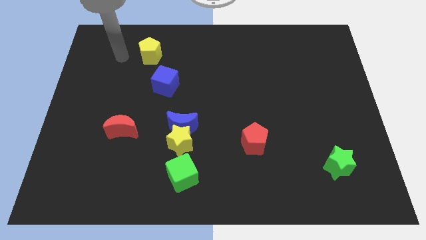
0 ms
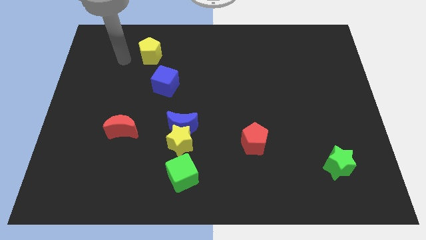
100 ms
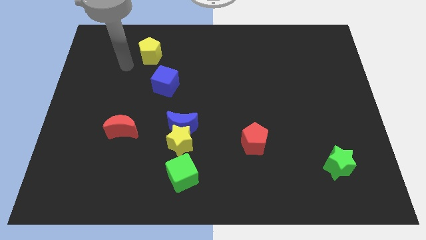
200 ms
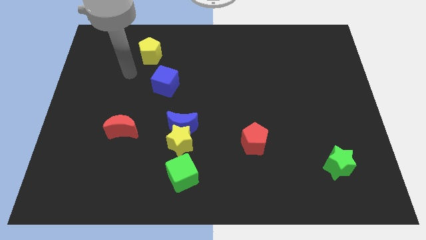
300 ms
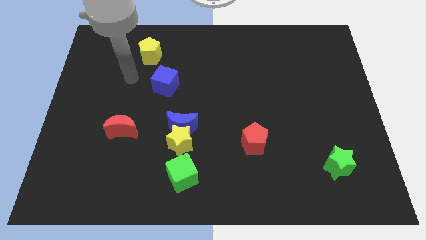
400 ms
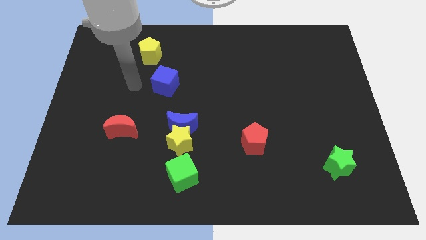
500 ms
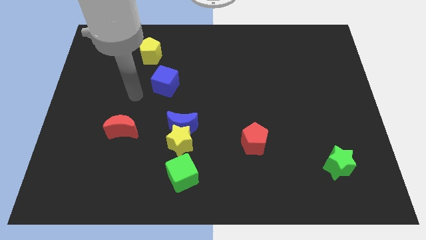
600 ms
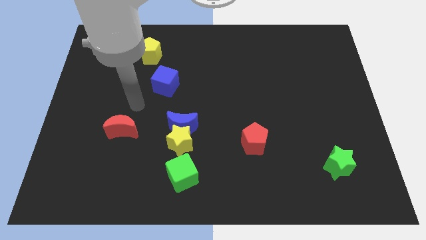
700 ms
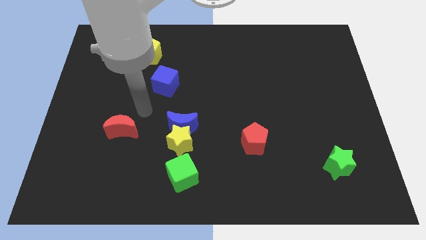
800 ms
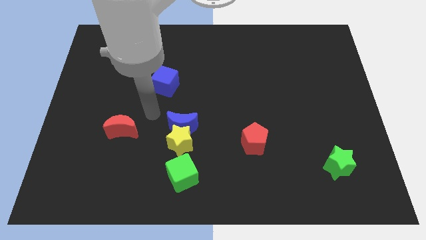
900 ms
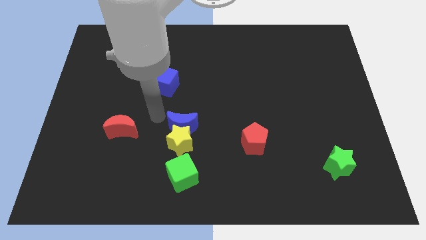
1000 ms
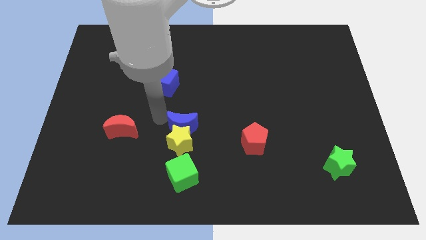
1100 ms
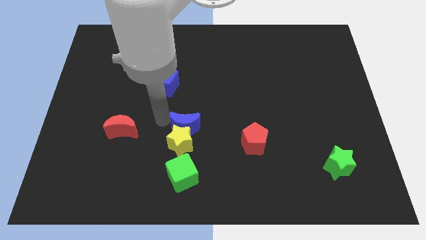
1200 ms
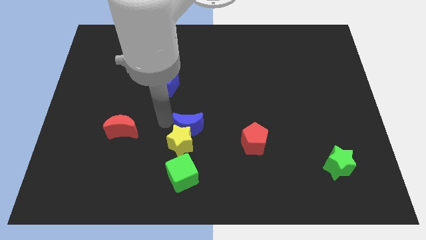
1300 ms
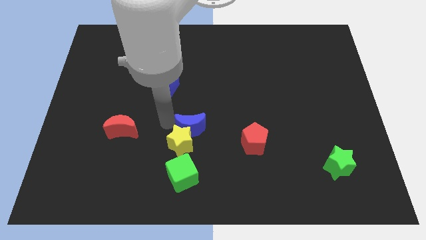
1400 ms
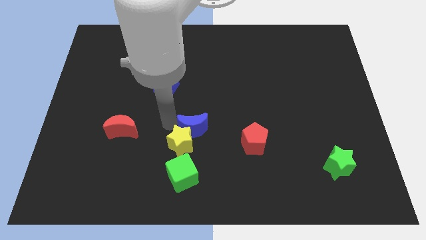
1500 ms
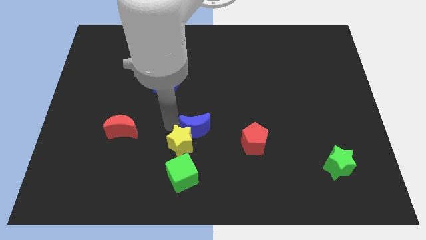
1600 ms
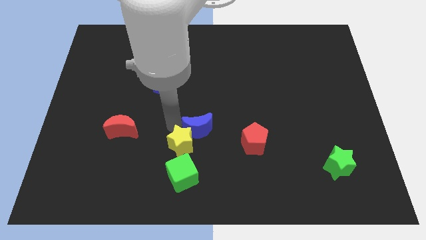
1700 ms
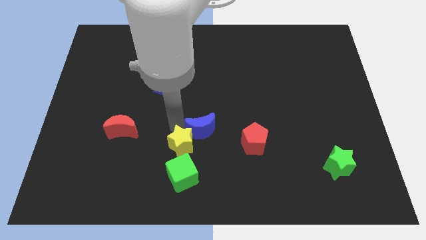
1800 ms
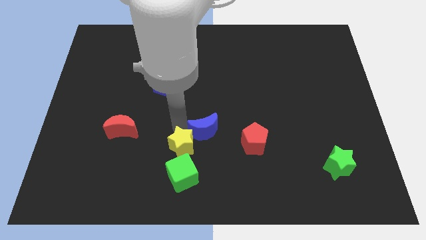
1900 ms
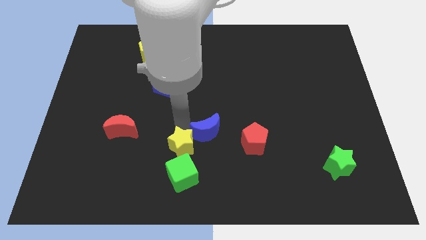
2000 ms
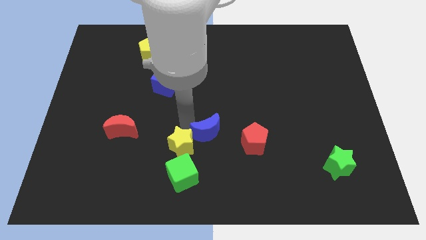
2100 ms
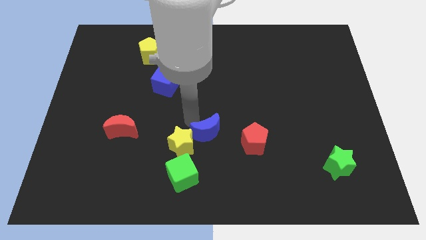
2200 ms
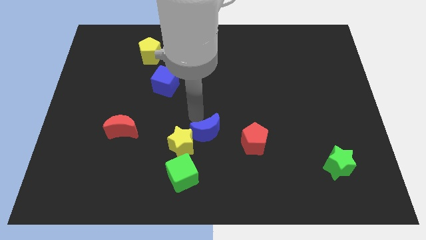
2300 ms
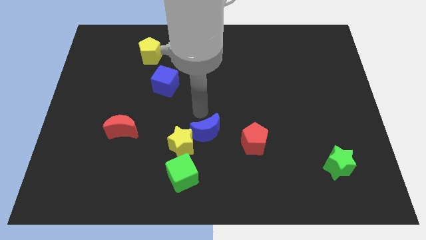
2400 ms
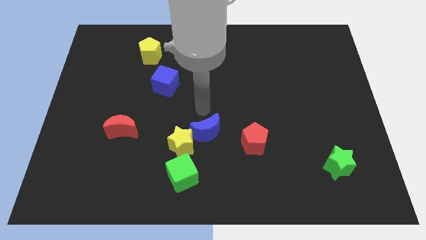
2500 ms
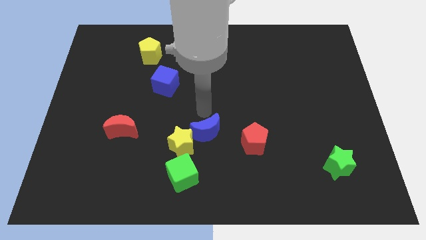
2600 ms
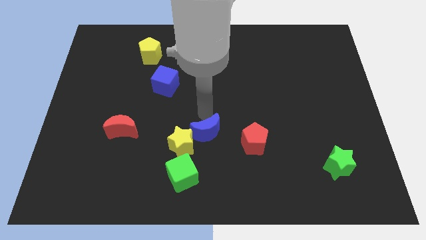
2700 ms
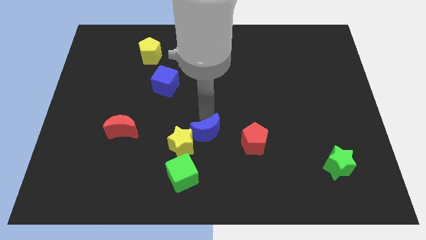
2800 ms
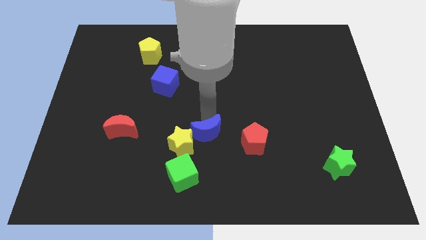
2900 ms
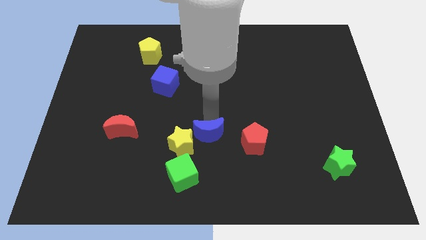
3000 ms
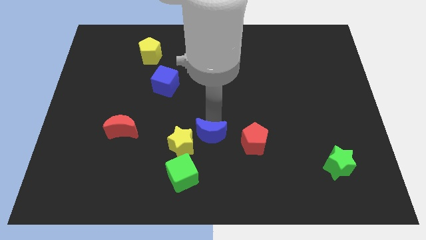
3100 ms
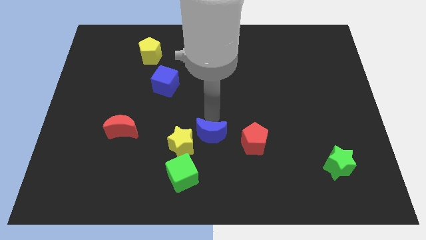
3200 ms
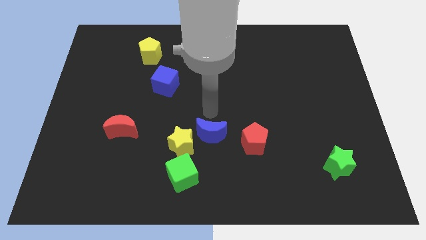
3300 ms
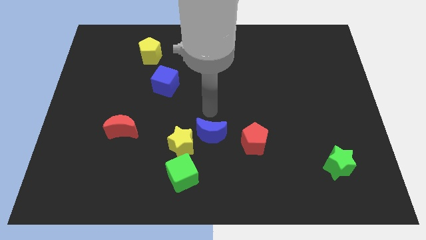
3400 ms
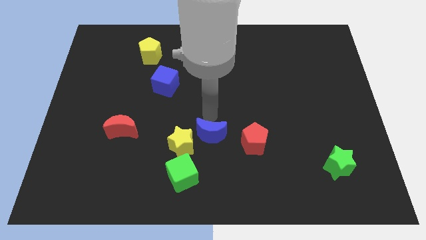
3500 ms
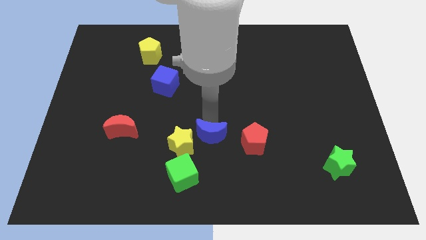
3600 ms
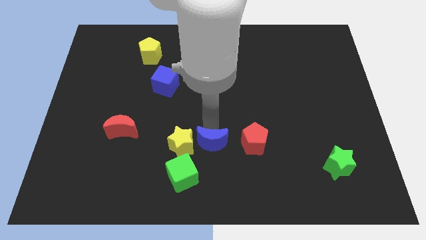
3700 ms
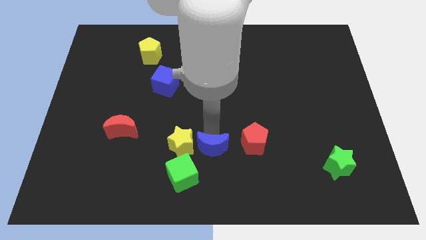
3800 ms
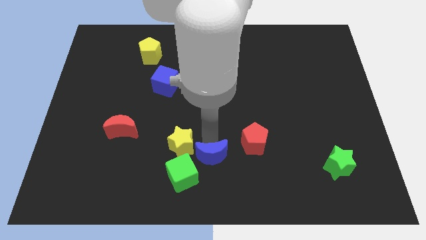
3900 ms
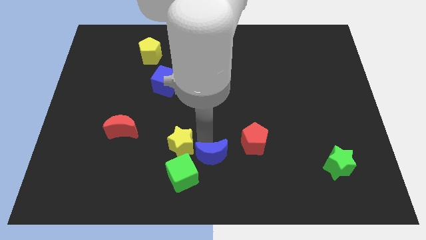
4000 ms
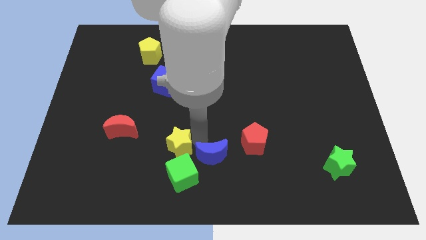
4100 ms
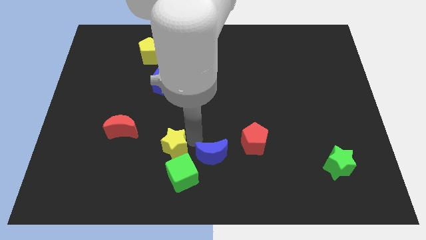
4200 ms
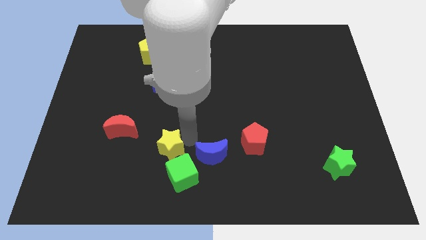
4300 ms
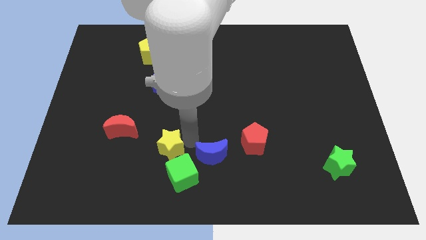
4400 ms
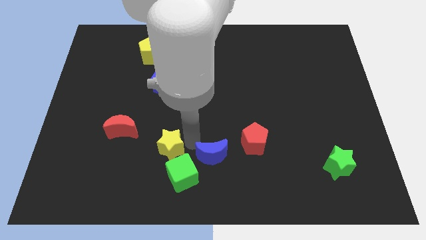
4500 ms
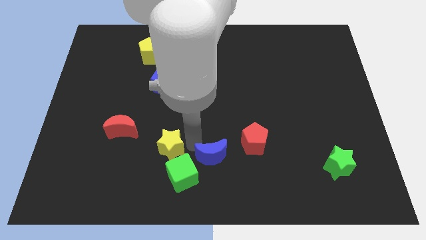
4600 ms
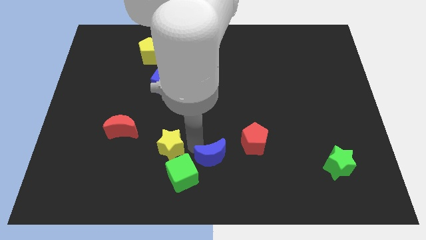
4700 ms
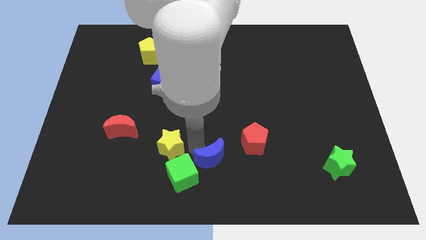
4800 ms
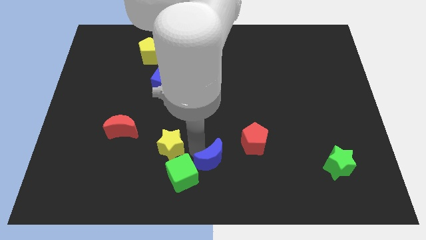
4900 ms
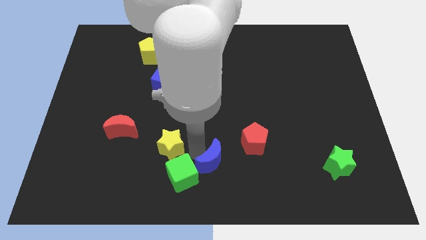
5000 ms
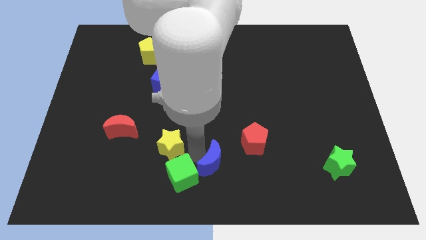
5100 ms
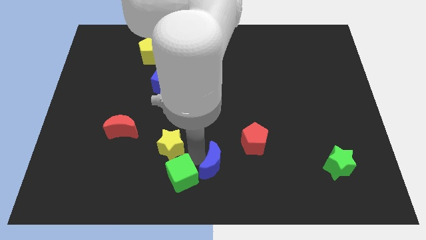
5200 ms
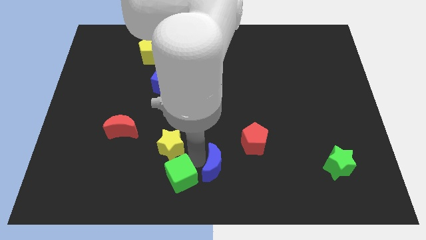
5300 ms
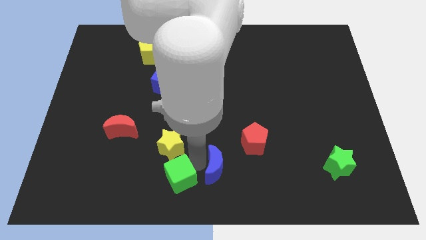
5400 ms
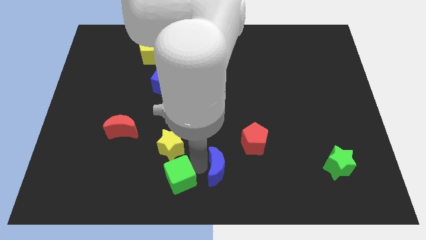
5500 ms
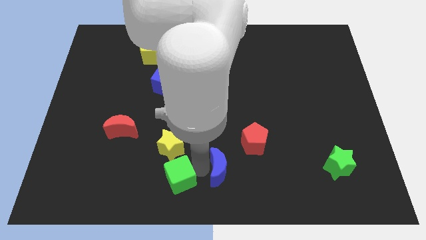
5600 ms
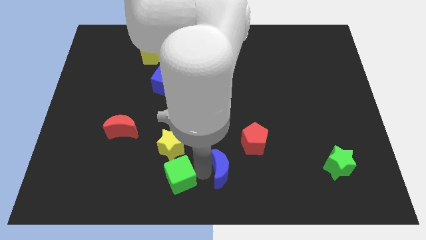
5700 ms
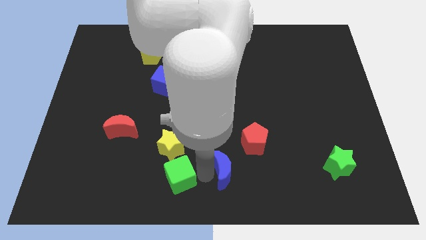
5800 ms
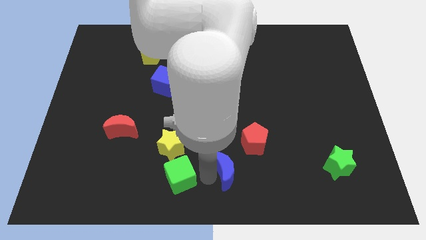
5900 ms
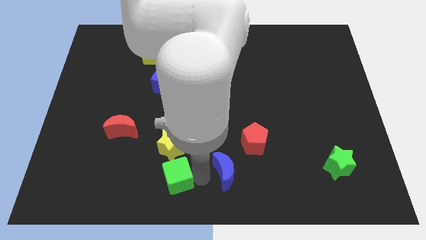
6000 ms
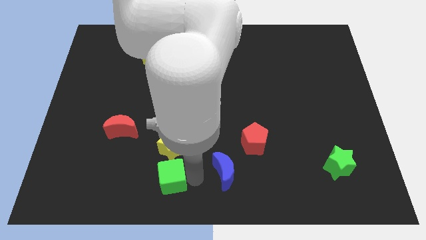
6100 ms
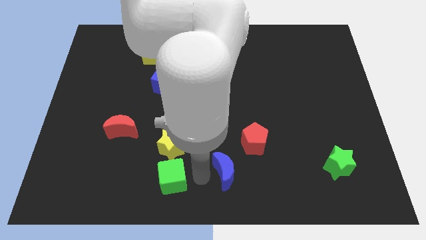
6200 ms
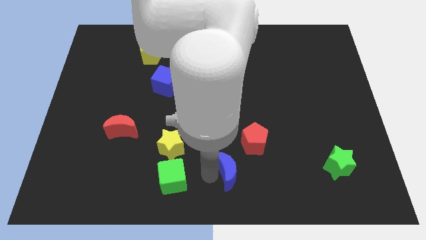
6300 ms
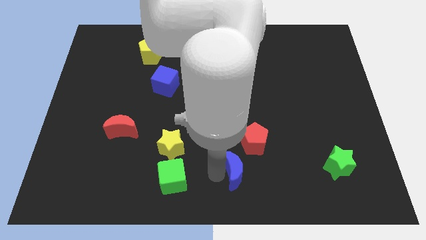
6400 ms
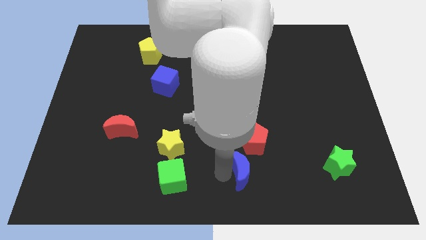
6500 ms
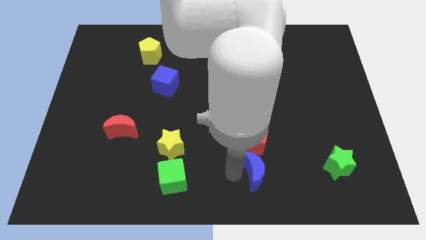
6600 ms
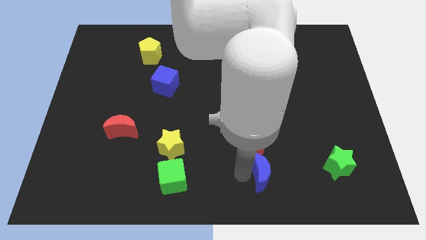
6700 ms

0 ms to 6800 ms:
push the blue moon to the bottom right of the red pentagon

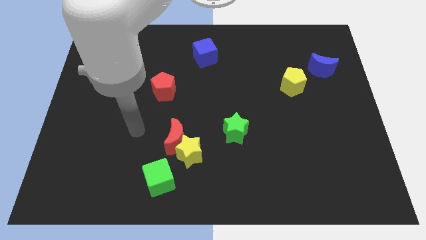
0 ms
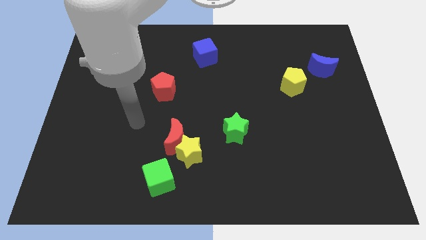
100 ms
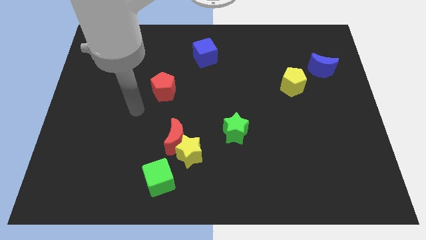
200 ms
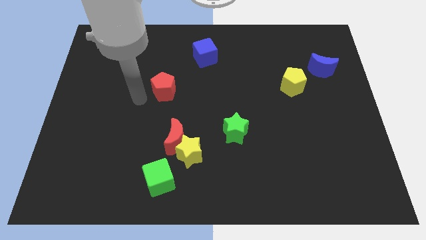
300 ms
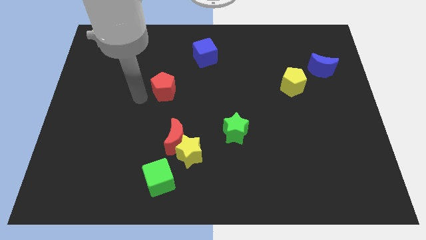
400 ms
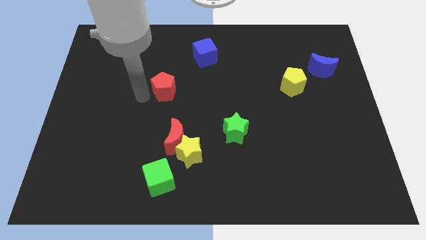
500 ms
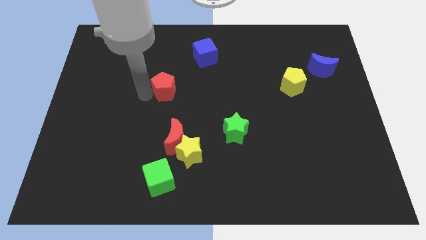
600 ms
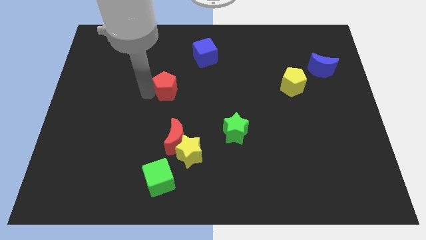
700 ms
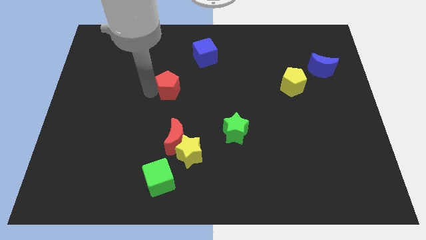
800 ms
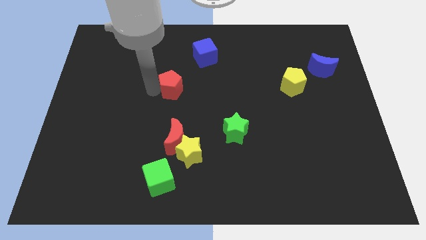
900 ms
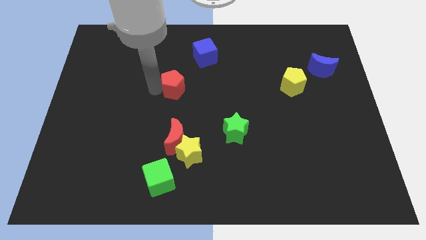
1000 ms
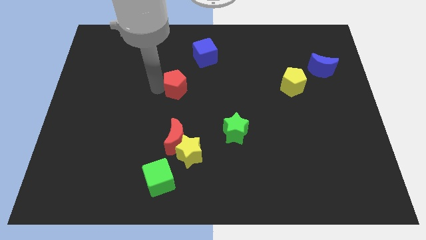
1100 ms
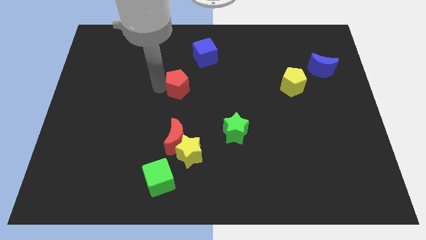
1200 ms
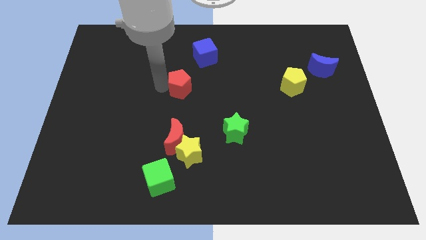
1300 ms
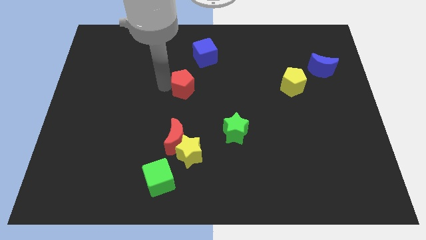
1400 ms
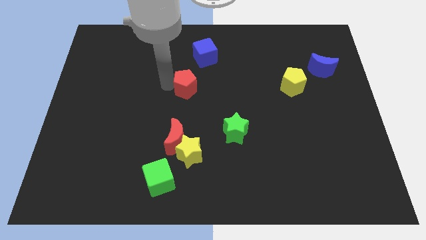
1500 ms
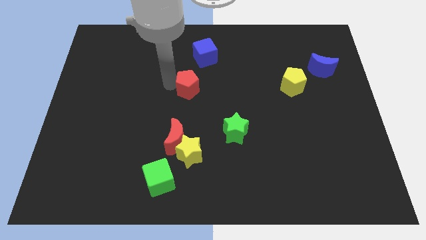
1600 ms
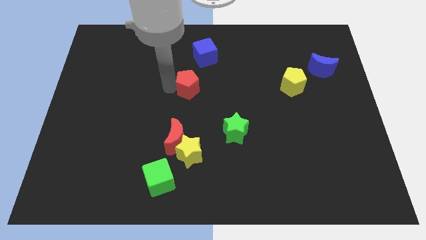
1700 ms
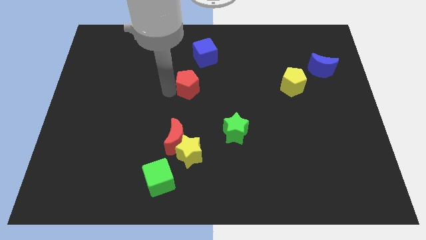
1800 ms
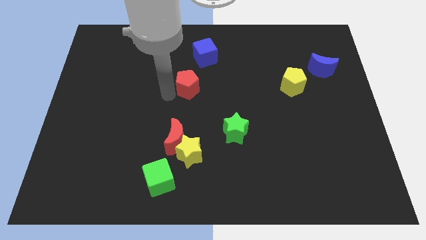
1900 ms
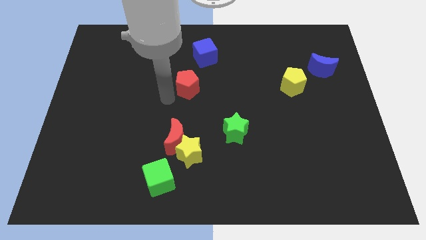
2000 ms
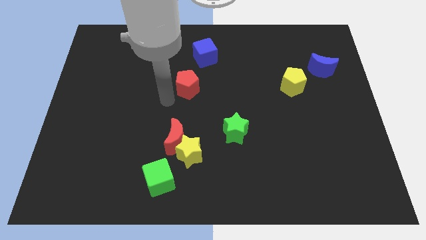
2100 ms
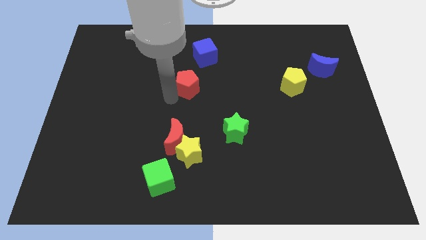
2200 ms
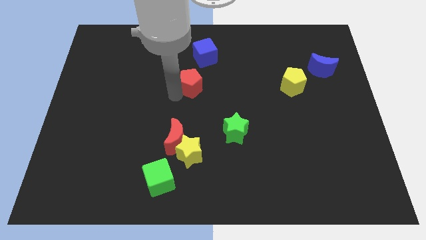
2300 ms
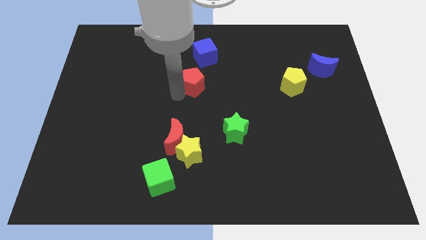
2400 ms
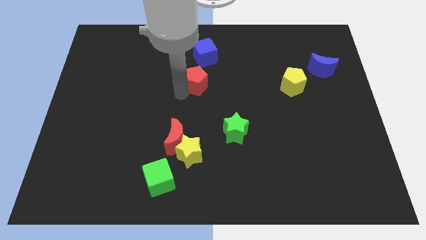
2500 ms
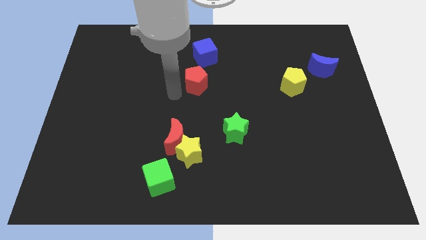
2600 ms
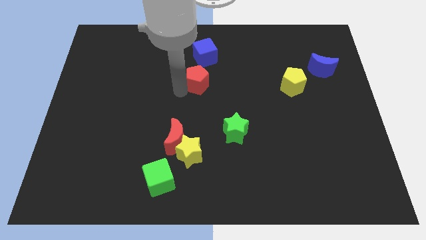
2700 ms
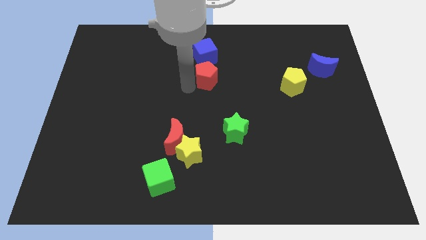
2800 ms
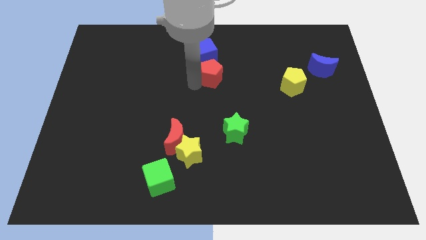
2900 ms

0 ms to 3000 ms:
move the red pentagon to the bottom right side of the blue cube
